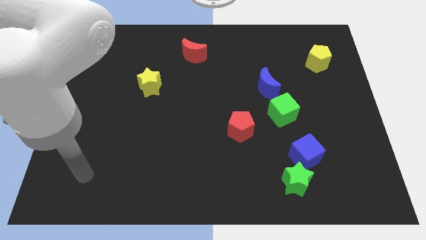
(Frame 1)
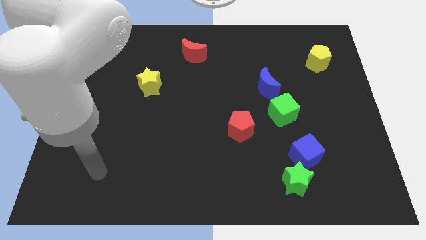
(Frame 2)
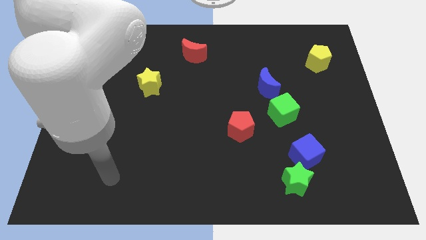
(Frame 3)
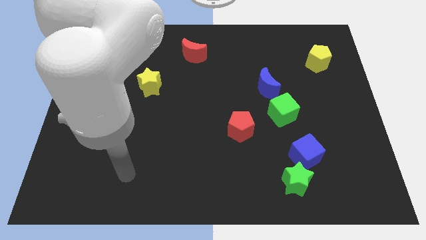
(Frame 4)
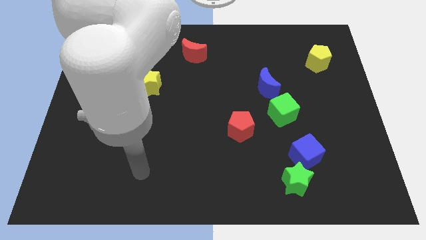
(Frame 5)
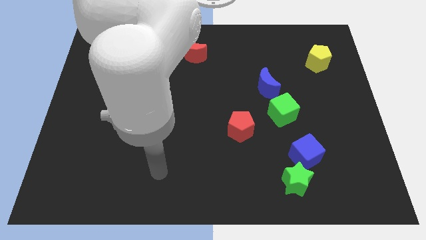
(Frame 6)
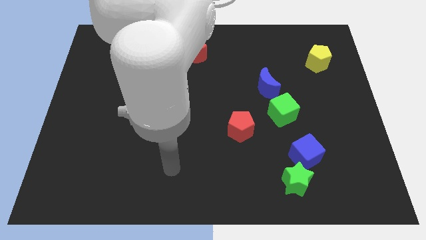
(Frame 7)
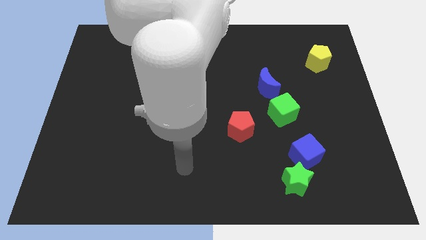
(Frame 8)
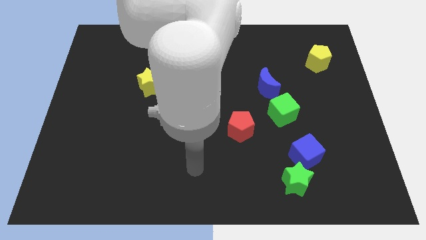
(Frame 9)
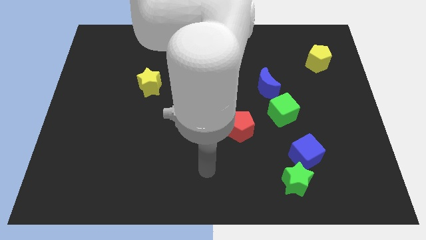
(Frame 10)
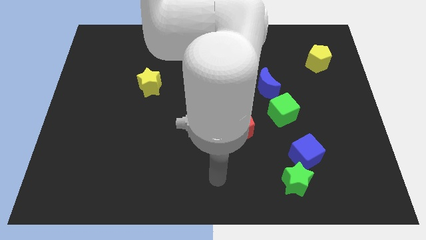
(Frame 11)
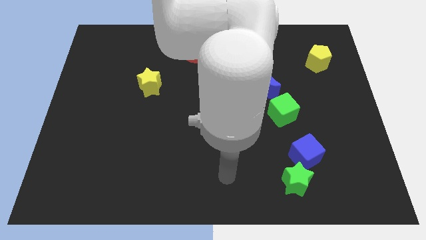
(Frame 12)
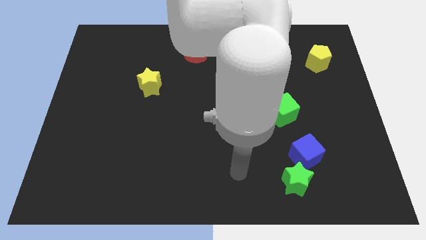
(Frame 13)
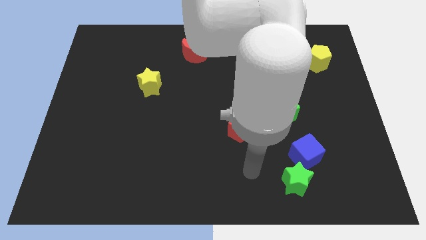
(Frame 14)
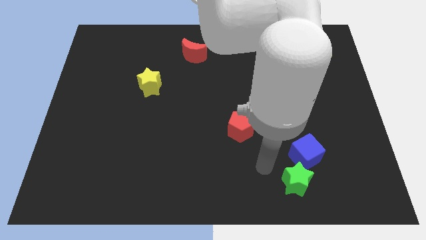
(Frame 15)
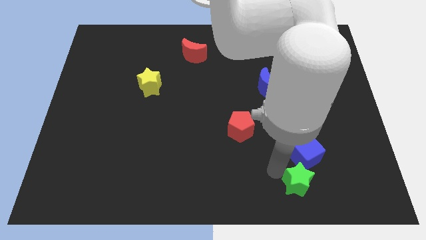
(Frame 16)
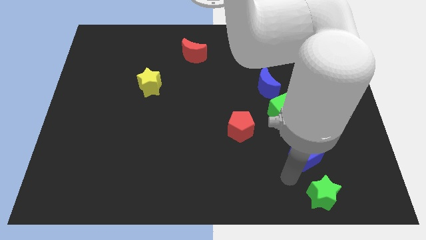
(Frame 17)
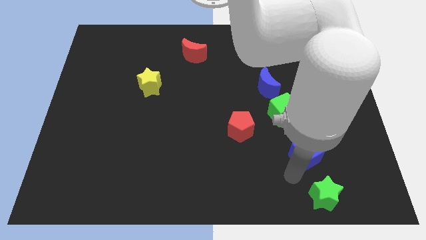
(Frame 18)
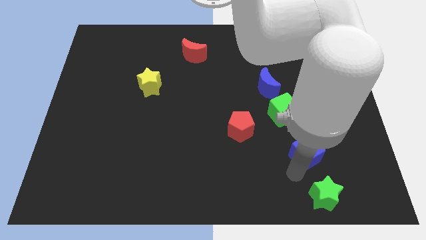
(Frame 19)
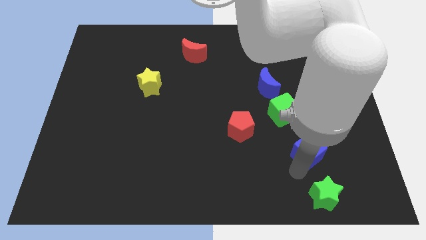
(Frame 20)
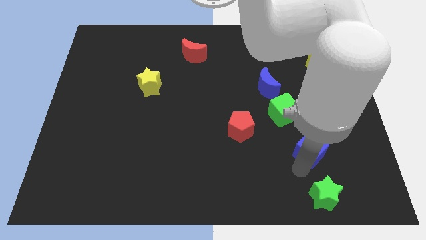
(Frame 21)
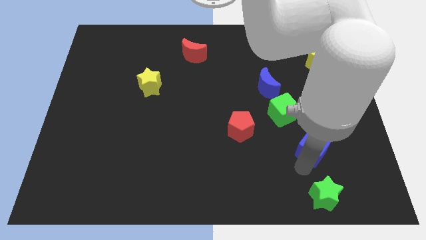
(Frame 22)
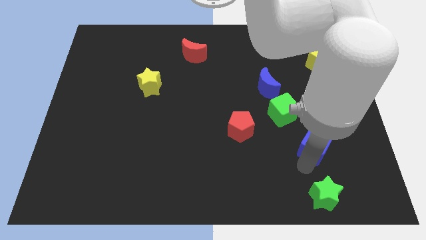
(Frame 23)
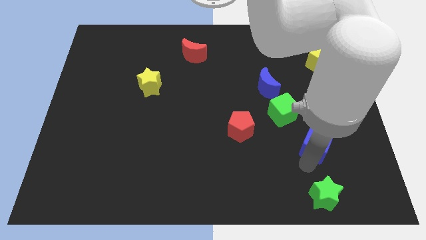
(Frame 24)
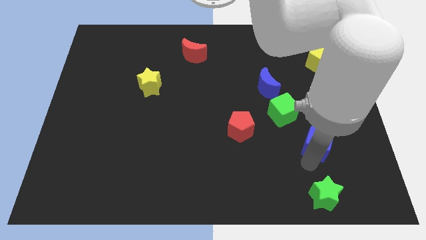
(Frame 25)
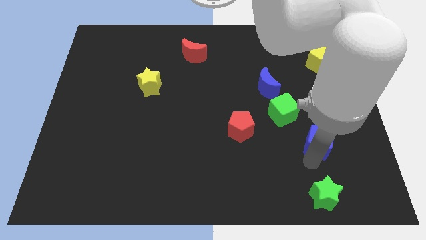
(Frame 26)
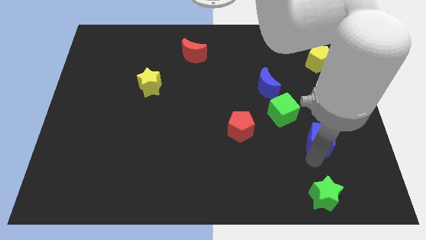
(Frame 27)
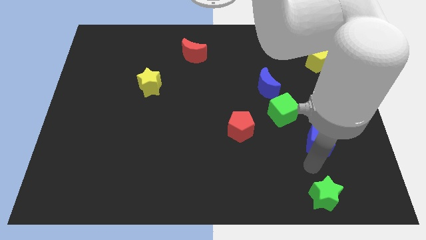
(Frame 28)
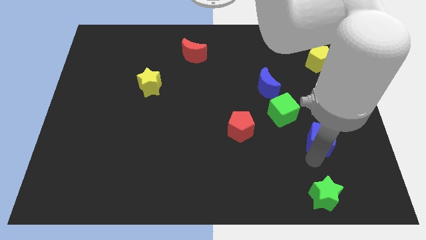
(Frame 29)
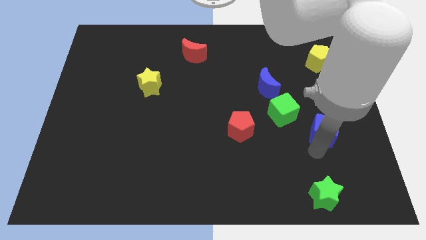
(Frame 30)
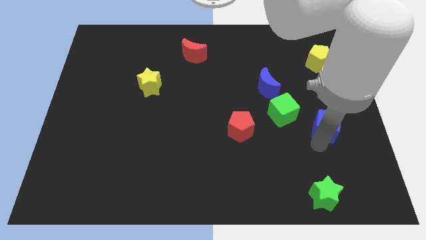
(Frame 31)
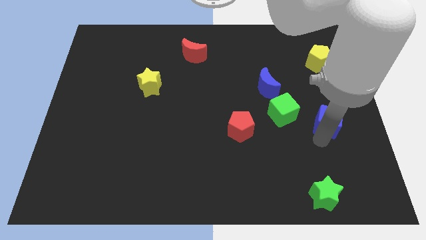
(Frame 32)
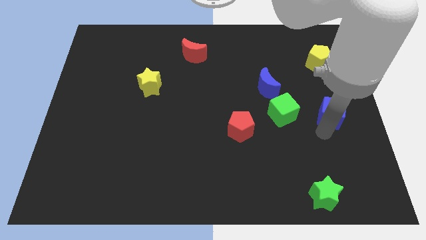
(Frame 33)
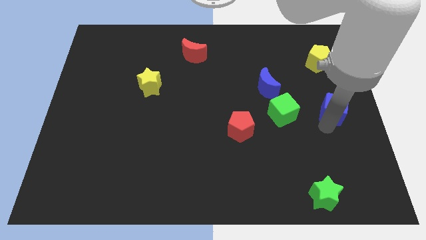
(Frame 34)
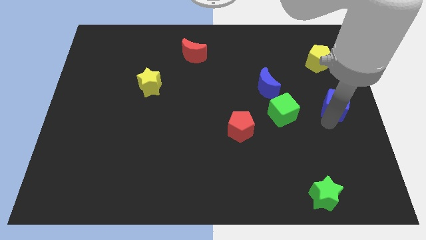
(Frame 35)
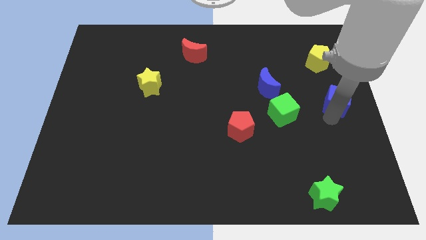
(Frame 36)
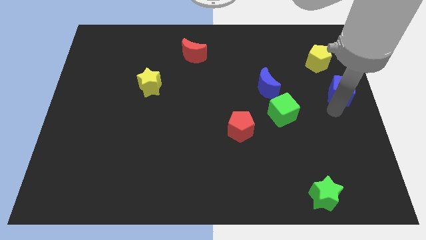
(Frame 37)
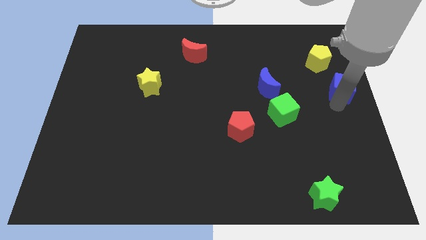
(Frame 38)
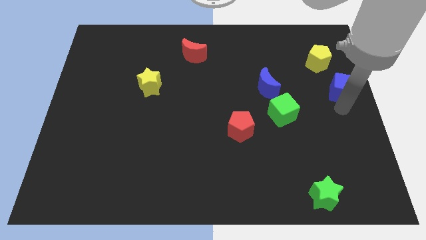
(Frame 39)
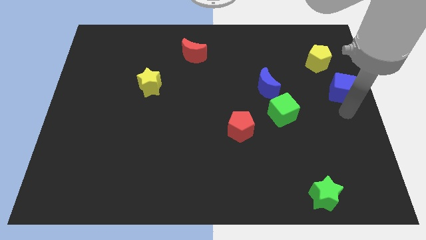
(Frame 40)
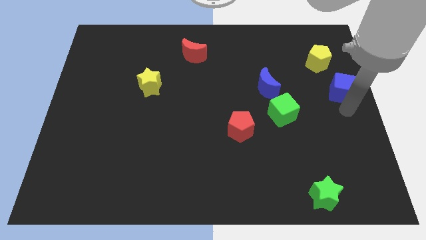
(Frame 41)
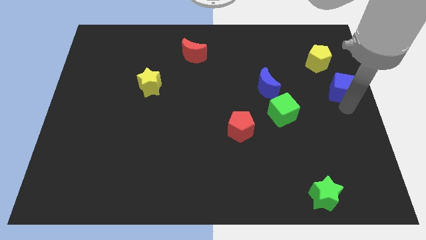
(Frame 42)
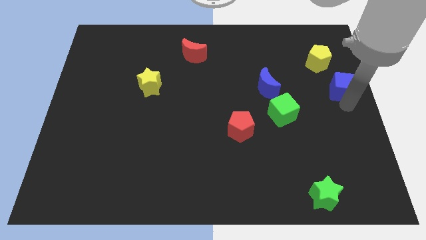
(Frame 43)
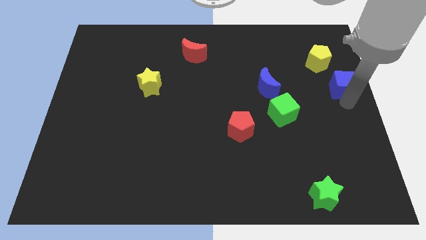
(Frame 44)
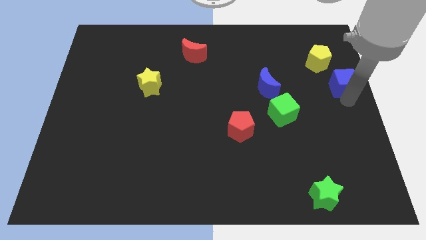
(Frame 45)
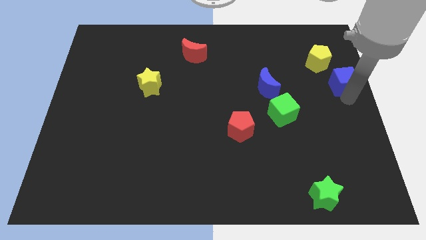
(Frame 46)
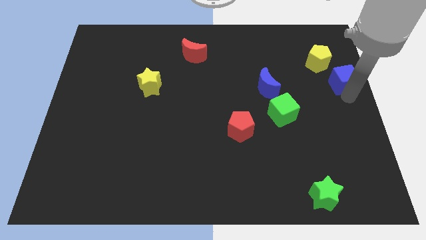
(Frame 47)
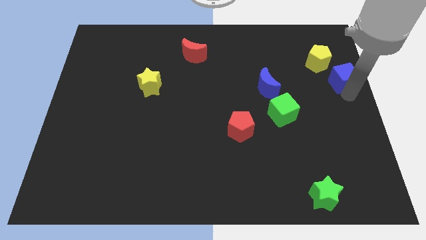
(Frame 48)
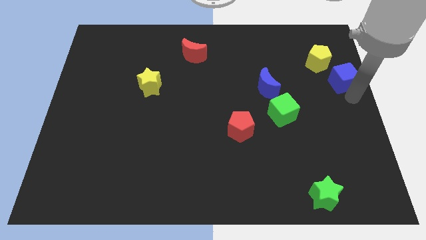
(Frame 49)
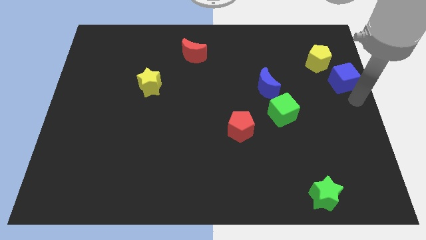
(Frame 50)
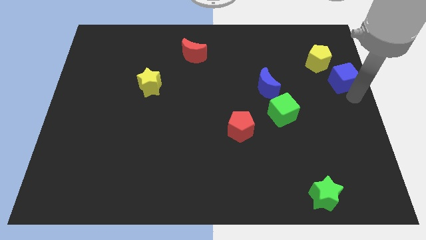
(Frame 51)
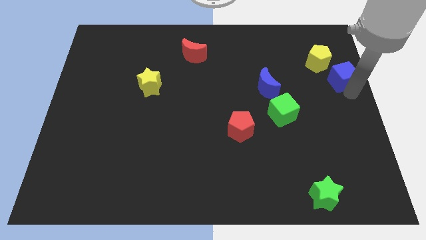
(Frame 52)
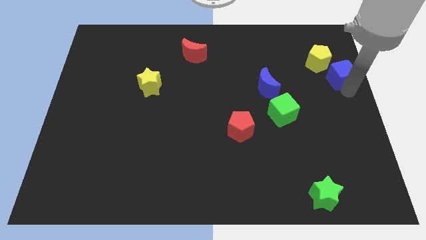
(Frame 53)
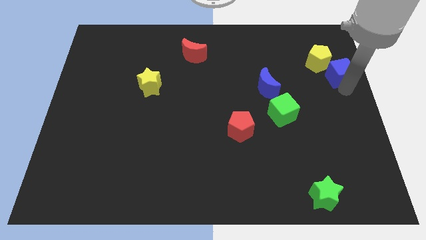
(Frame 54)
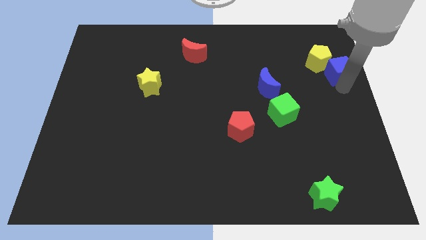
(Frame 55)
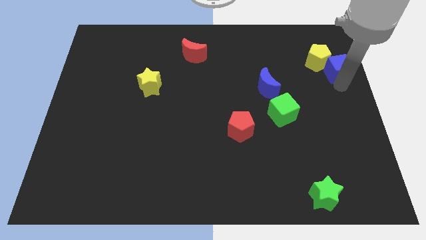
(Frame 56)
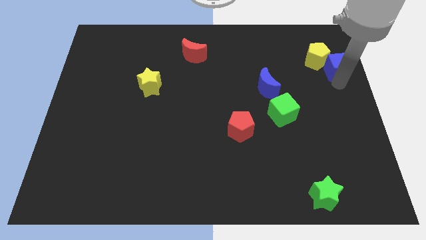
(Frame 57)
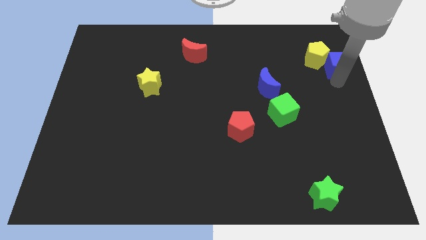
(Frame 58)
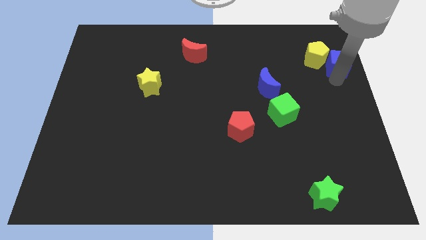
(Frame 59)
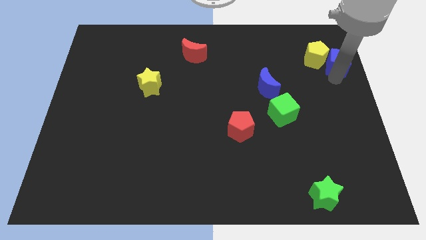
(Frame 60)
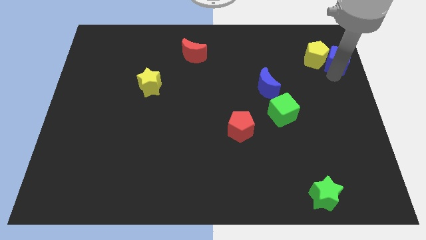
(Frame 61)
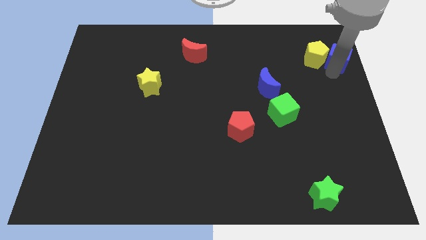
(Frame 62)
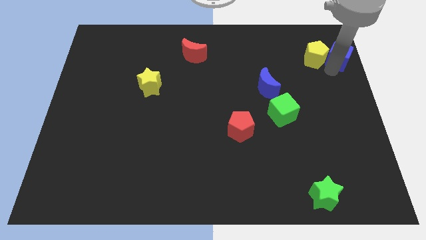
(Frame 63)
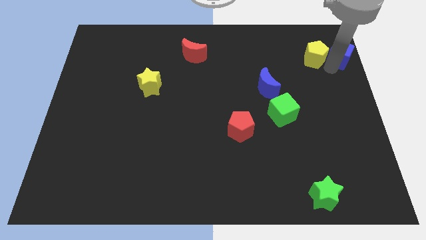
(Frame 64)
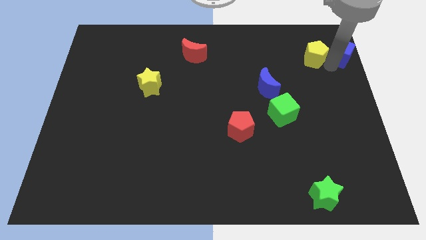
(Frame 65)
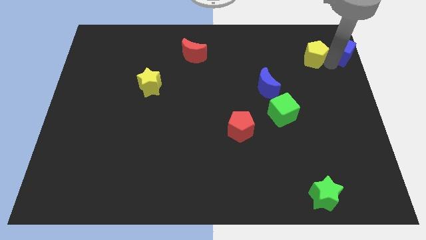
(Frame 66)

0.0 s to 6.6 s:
slide the blue cube to the top right of the board
